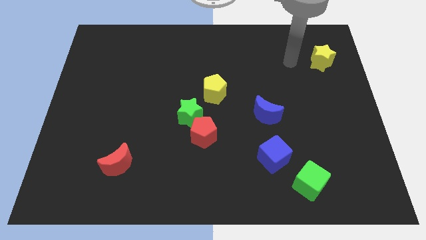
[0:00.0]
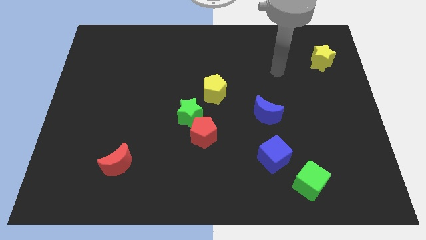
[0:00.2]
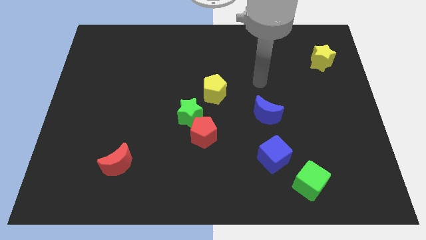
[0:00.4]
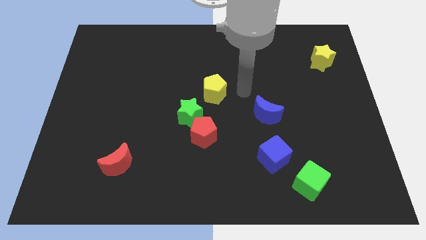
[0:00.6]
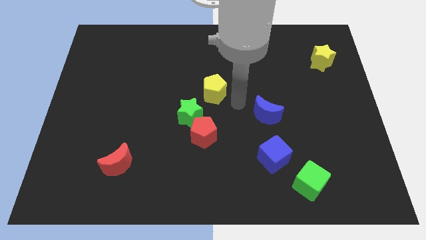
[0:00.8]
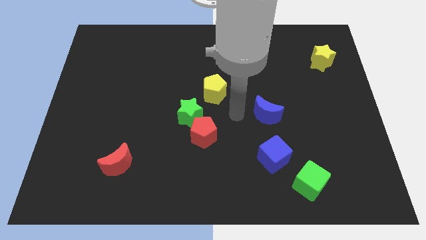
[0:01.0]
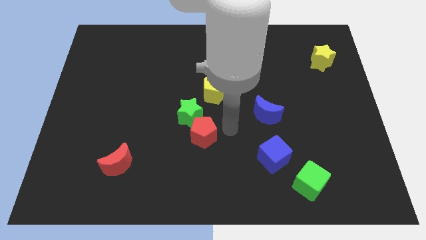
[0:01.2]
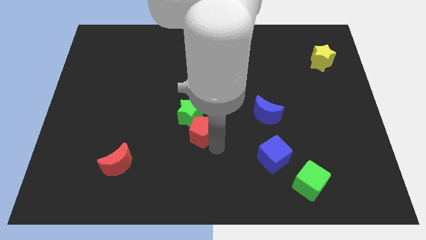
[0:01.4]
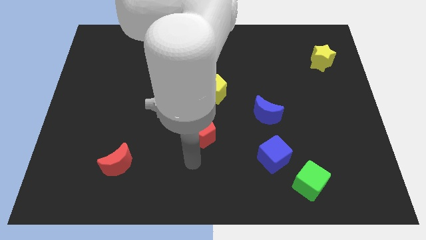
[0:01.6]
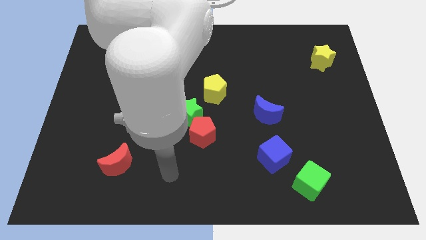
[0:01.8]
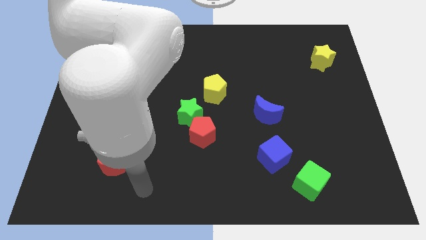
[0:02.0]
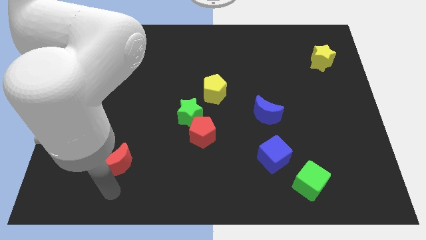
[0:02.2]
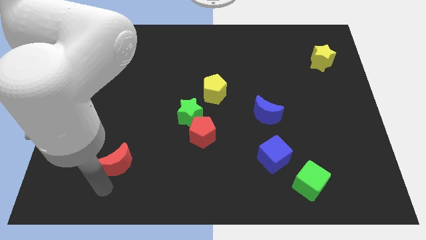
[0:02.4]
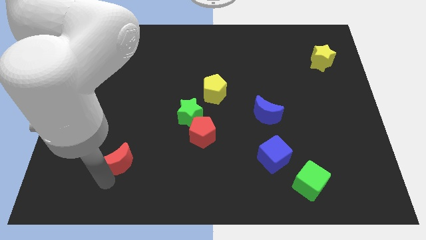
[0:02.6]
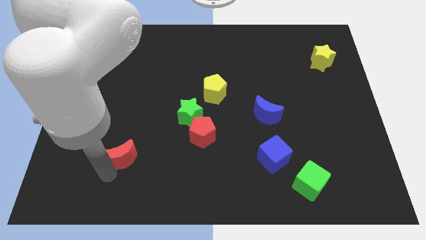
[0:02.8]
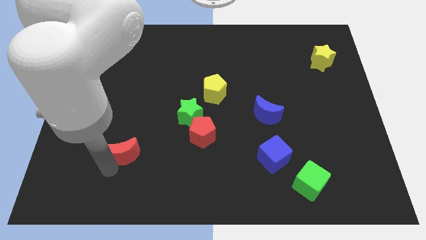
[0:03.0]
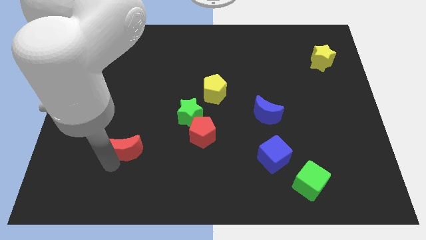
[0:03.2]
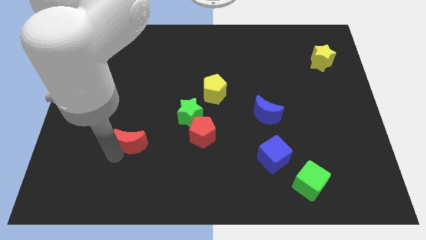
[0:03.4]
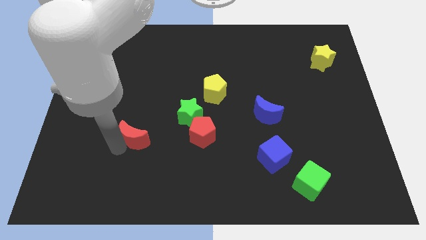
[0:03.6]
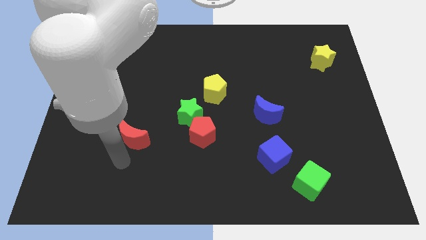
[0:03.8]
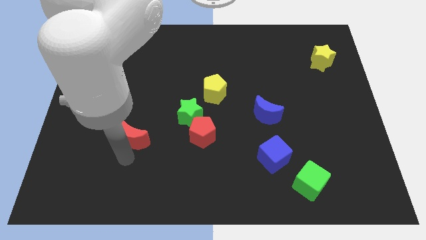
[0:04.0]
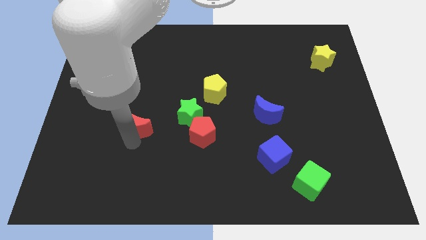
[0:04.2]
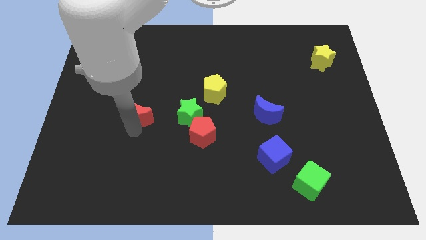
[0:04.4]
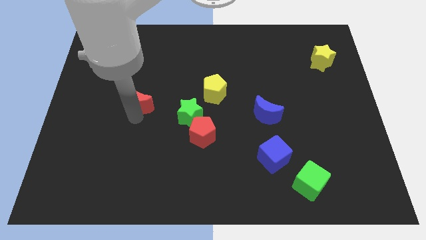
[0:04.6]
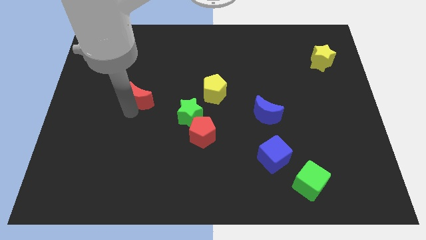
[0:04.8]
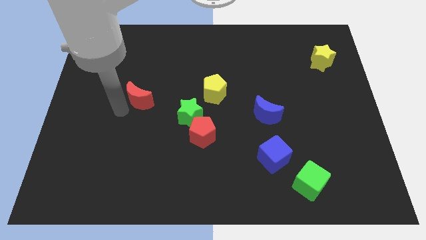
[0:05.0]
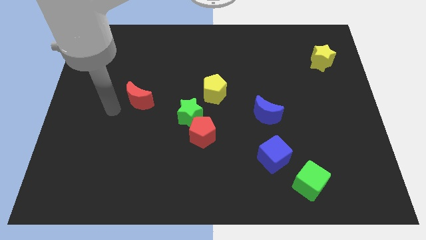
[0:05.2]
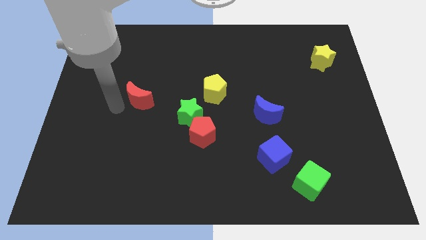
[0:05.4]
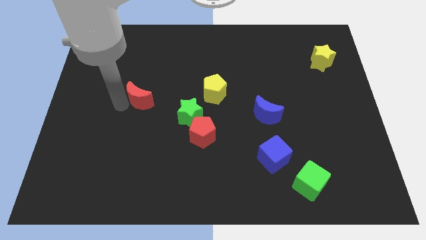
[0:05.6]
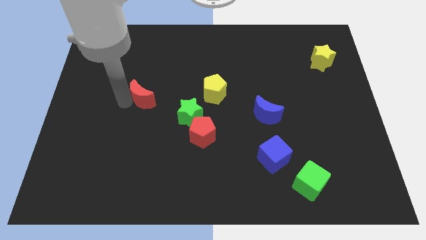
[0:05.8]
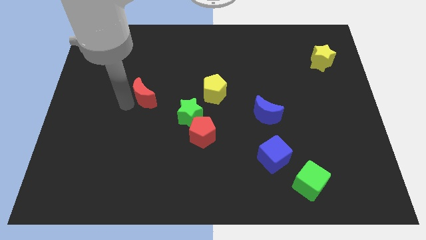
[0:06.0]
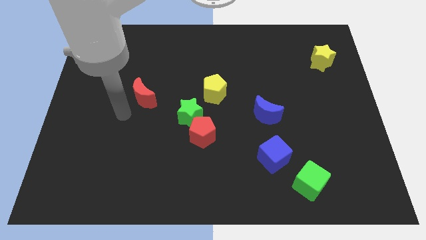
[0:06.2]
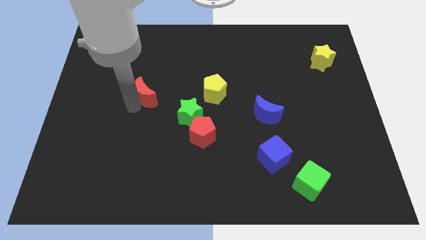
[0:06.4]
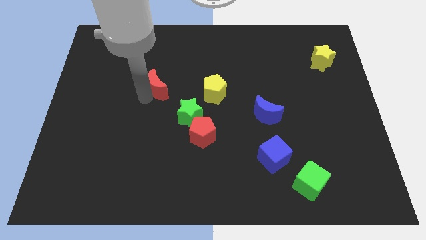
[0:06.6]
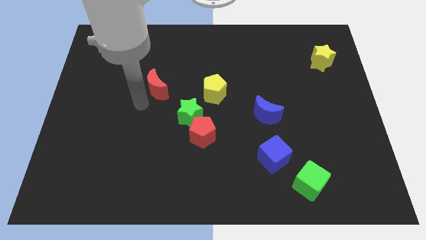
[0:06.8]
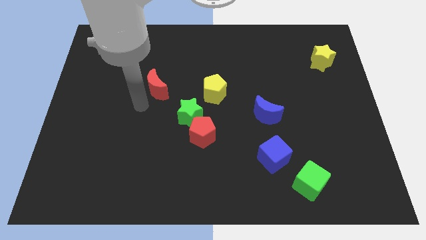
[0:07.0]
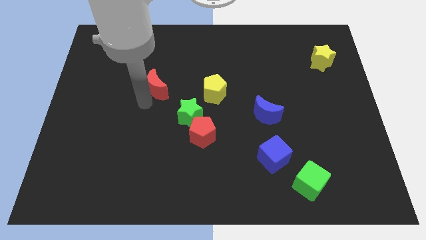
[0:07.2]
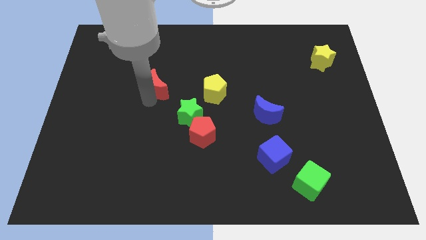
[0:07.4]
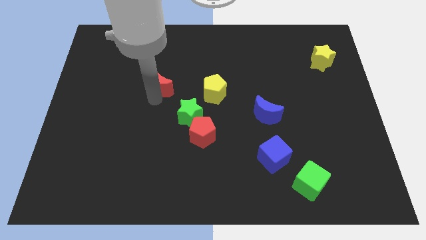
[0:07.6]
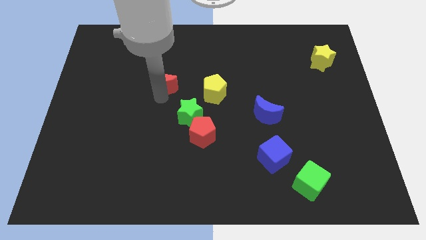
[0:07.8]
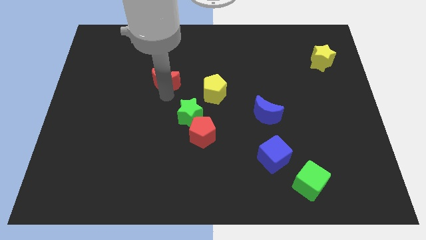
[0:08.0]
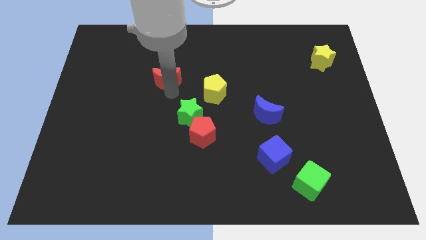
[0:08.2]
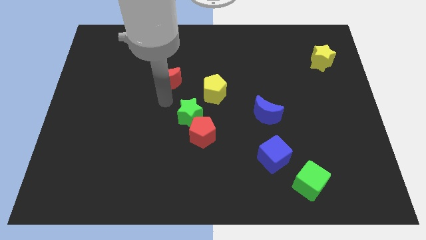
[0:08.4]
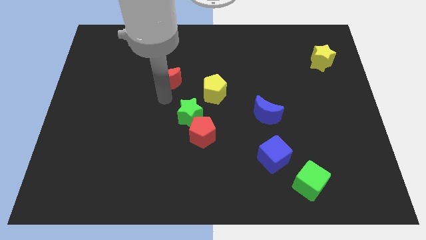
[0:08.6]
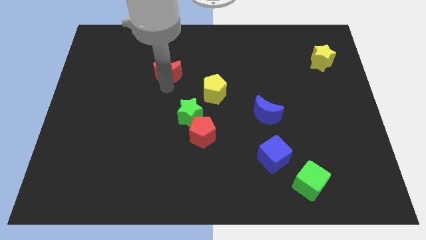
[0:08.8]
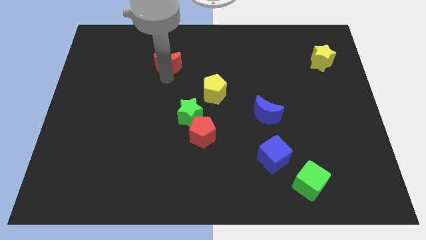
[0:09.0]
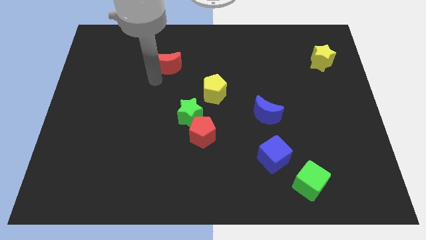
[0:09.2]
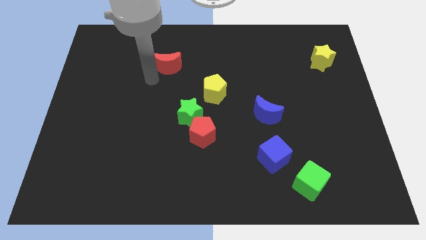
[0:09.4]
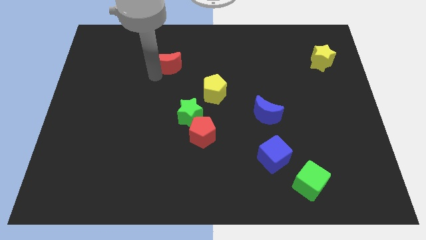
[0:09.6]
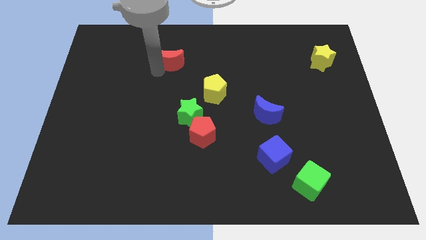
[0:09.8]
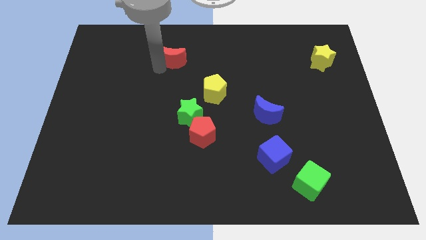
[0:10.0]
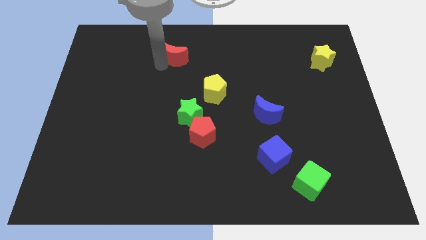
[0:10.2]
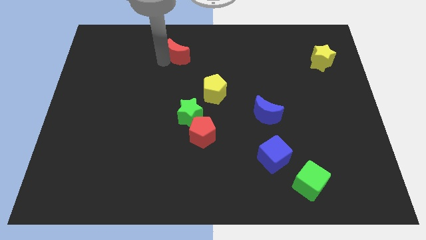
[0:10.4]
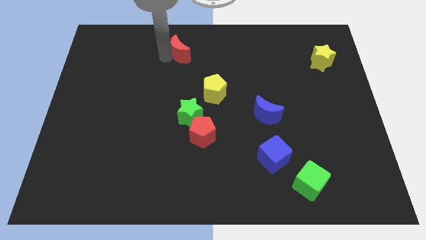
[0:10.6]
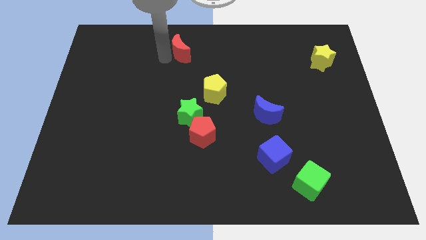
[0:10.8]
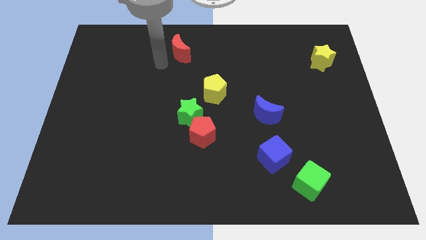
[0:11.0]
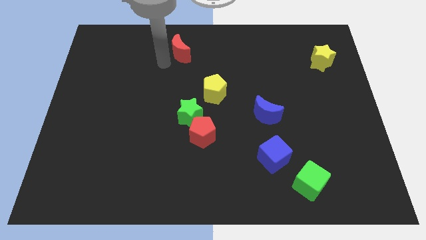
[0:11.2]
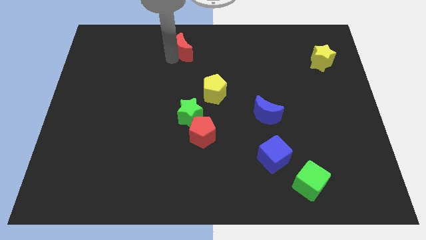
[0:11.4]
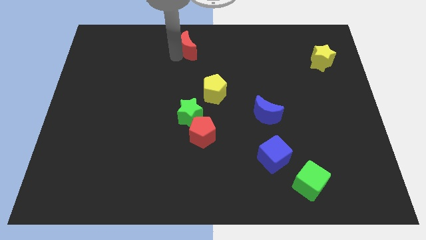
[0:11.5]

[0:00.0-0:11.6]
put the red moon to the towards your base

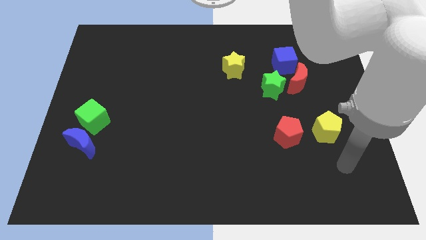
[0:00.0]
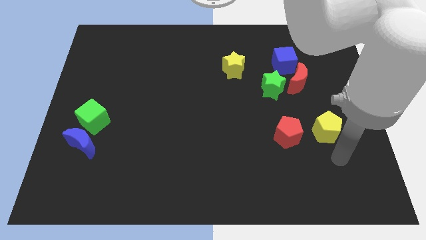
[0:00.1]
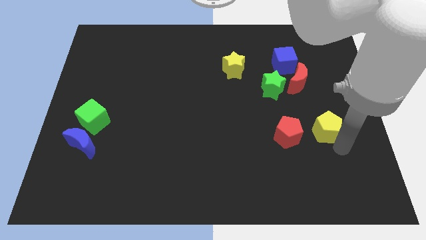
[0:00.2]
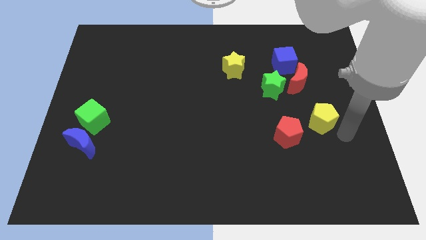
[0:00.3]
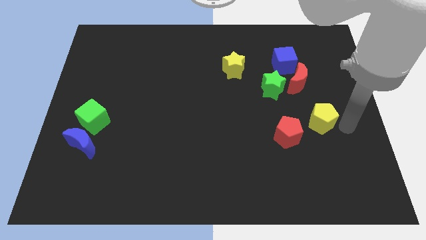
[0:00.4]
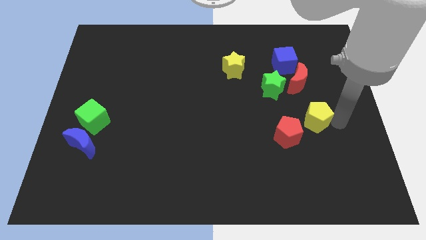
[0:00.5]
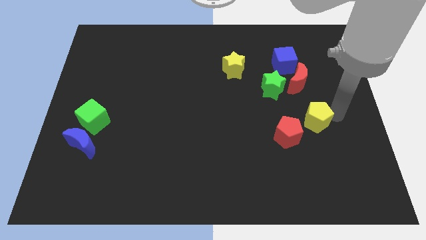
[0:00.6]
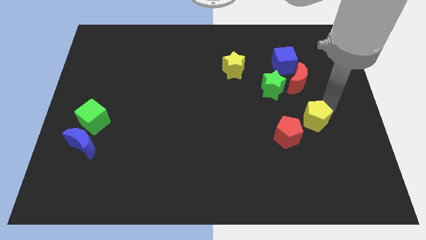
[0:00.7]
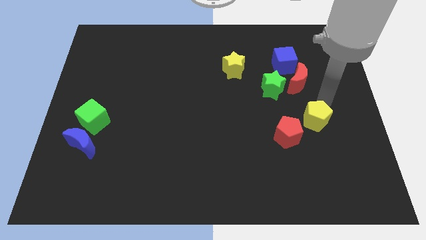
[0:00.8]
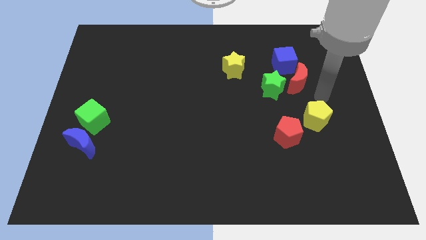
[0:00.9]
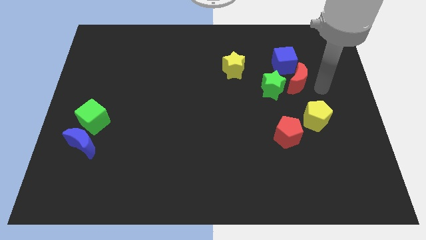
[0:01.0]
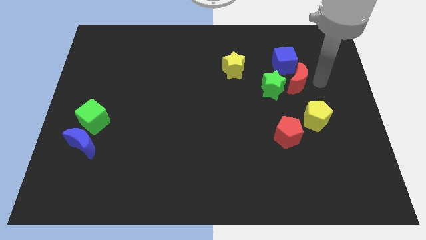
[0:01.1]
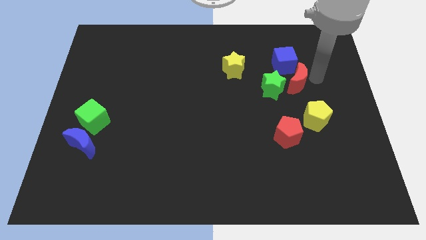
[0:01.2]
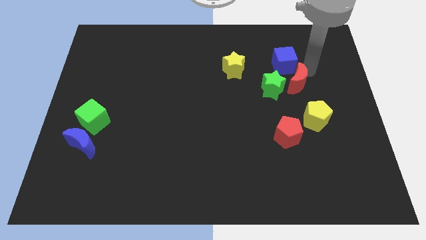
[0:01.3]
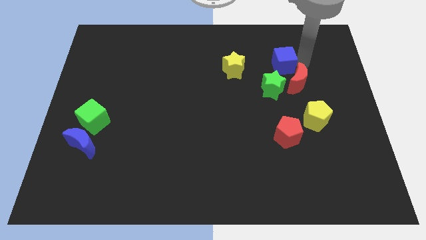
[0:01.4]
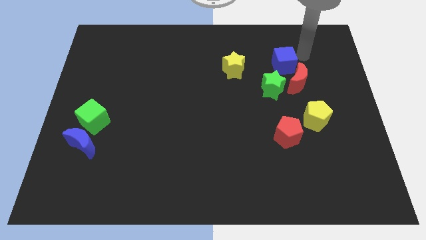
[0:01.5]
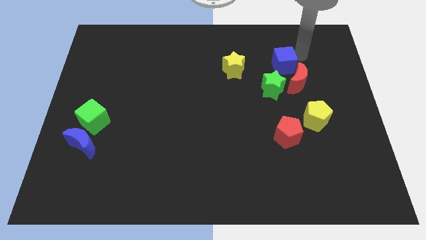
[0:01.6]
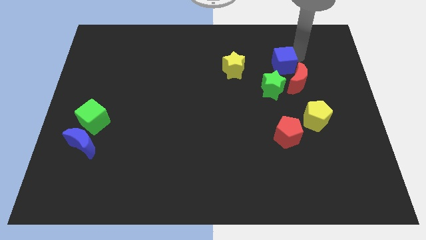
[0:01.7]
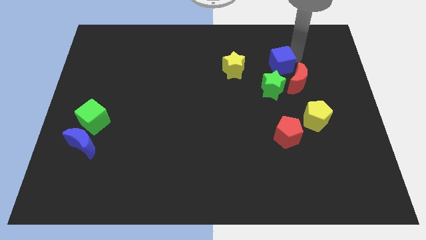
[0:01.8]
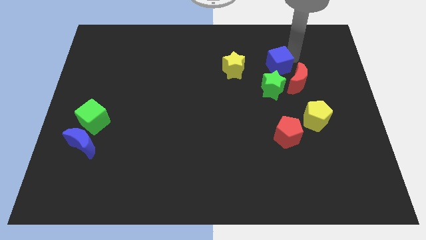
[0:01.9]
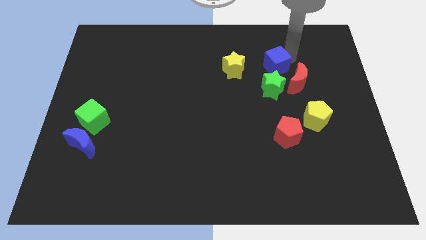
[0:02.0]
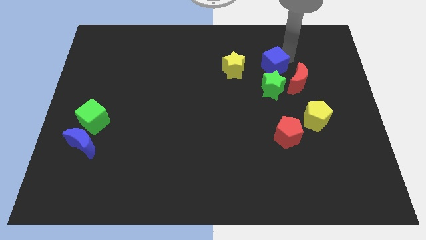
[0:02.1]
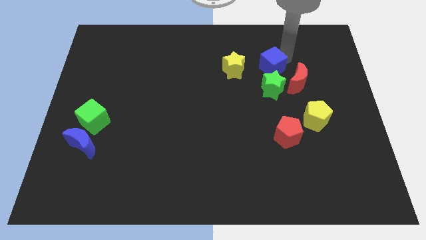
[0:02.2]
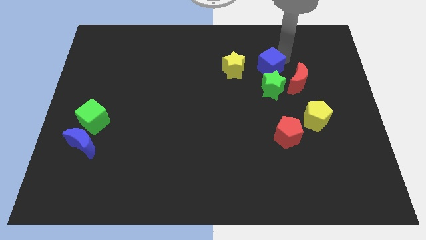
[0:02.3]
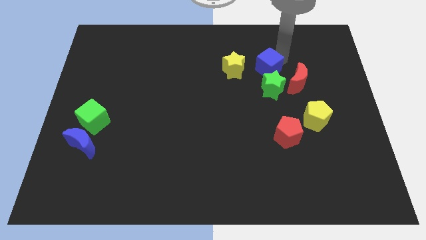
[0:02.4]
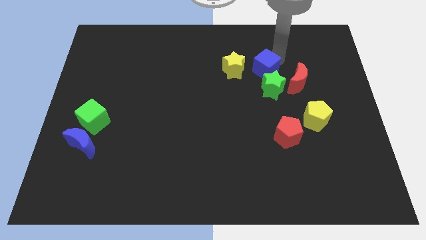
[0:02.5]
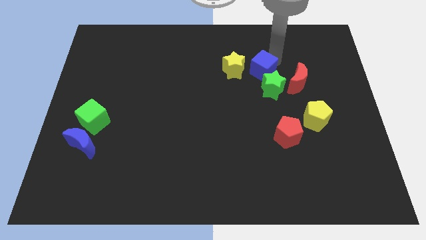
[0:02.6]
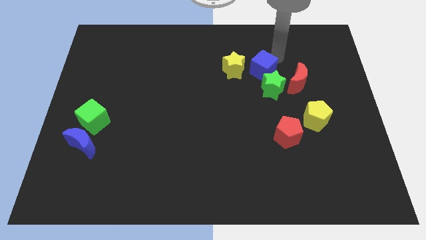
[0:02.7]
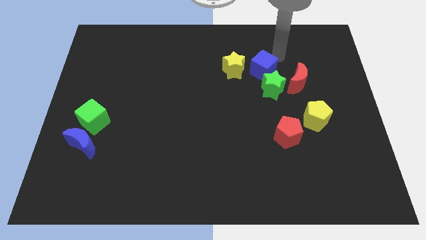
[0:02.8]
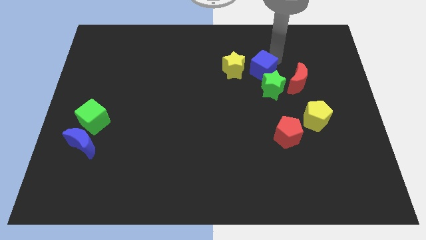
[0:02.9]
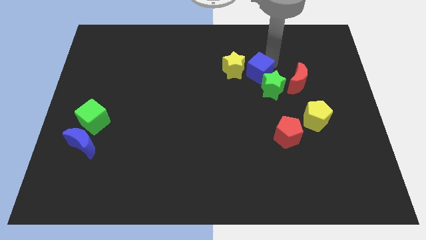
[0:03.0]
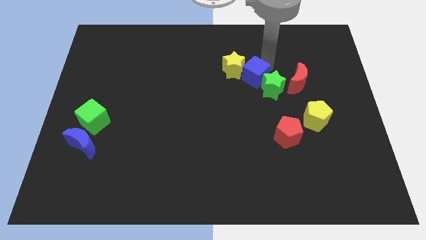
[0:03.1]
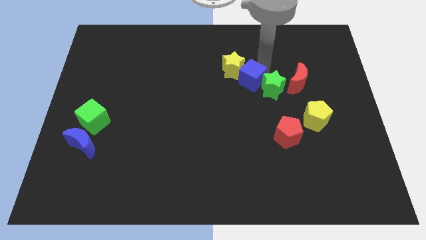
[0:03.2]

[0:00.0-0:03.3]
put the blue cube to the center of the board
